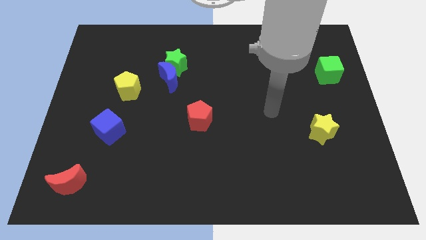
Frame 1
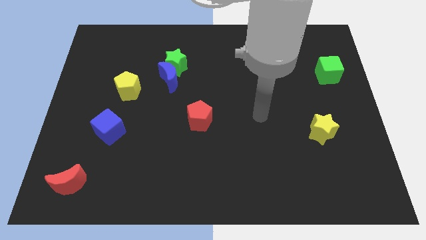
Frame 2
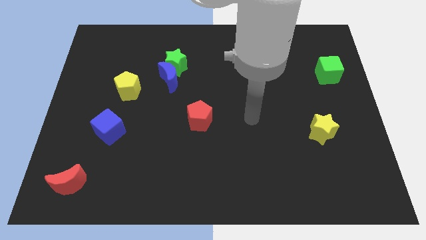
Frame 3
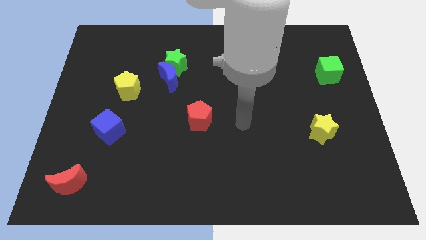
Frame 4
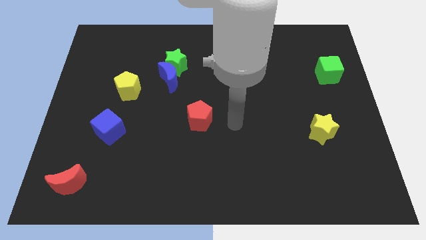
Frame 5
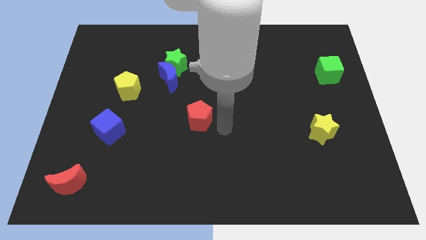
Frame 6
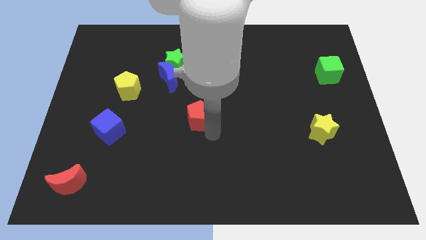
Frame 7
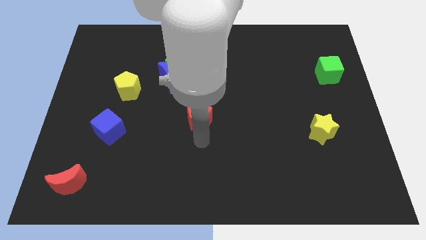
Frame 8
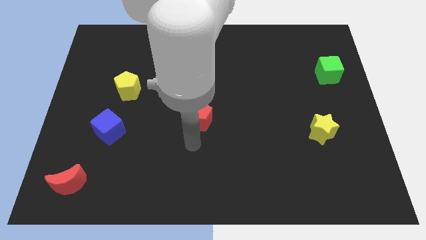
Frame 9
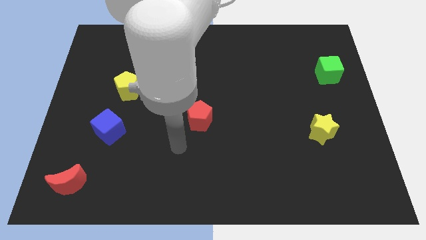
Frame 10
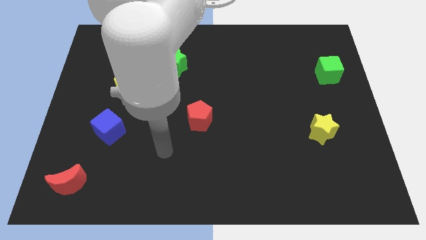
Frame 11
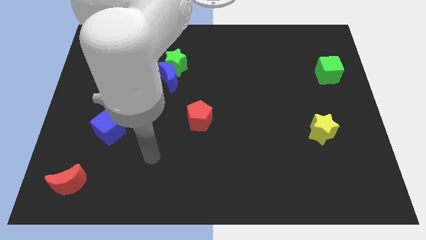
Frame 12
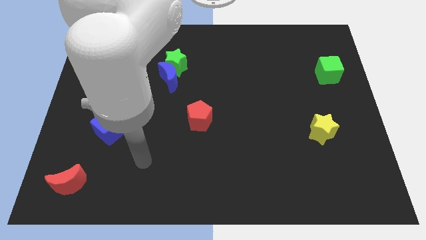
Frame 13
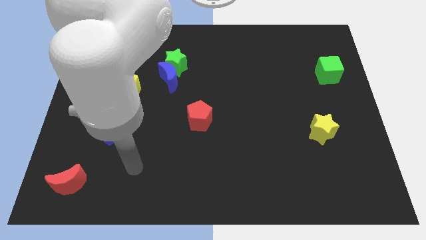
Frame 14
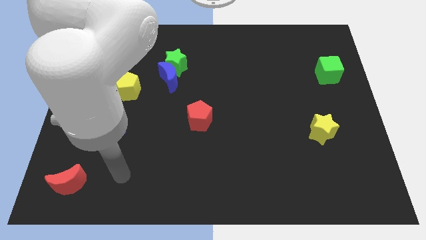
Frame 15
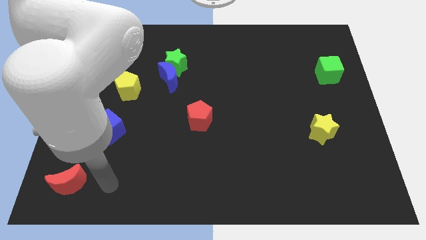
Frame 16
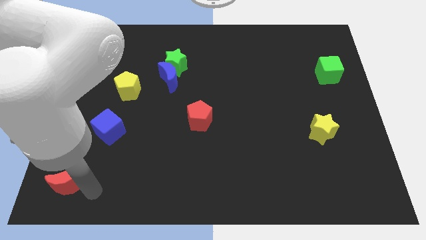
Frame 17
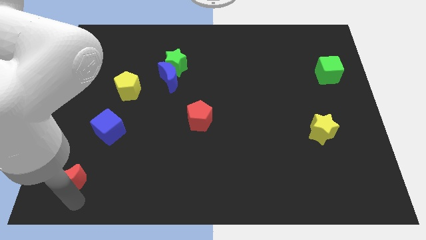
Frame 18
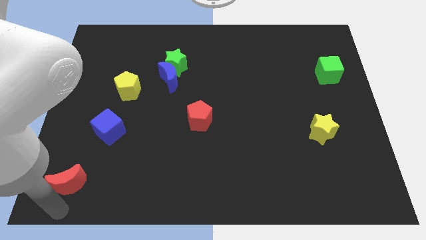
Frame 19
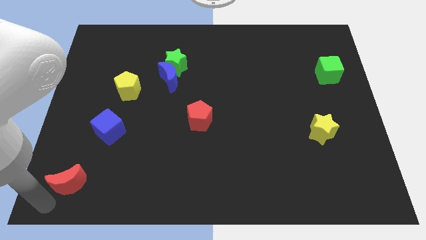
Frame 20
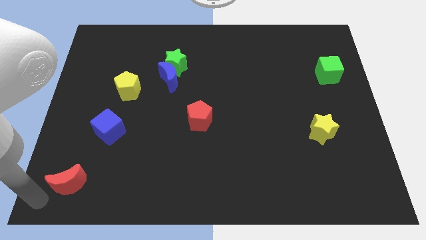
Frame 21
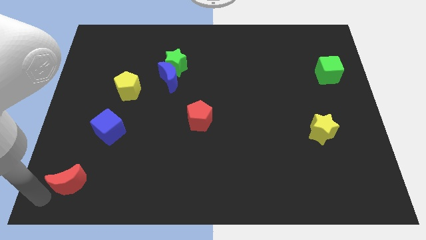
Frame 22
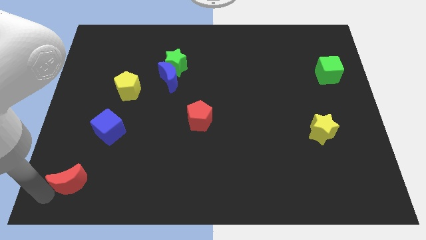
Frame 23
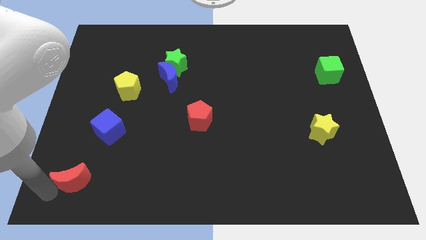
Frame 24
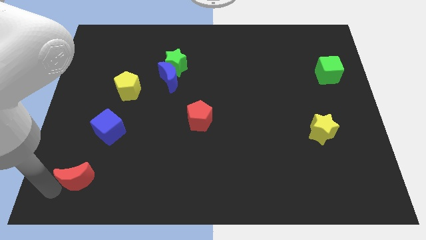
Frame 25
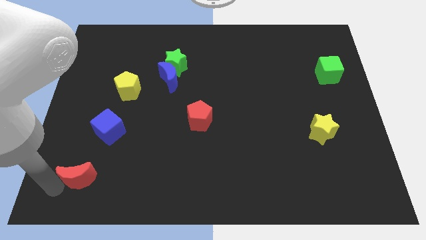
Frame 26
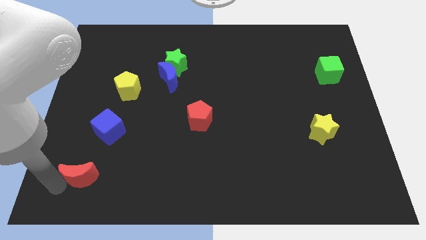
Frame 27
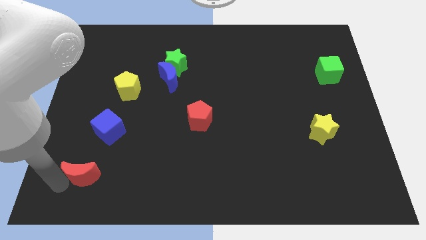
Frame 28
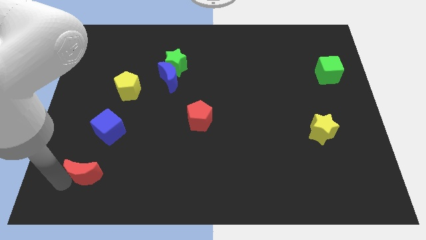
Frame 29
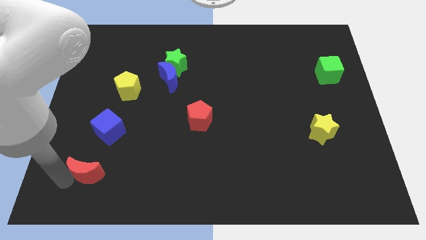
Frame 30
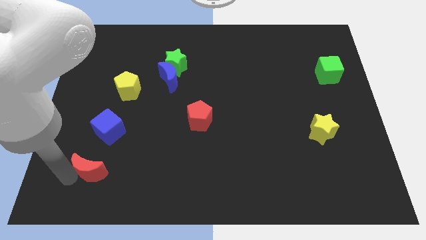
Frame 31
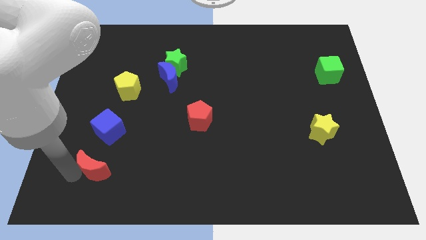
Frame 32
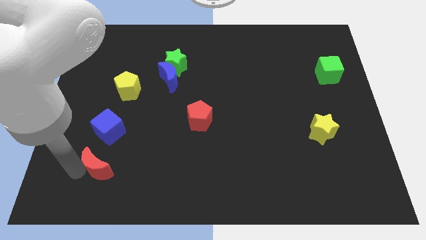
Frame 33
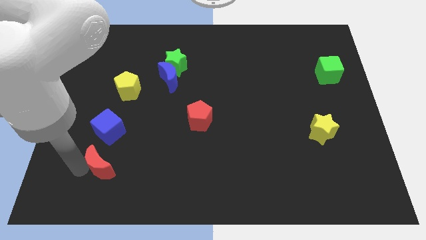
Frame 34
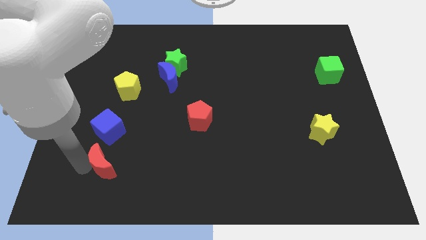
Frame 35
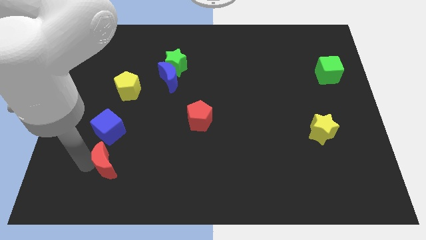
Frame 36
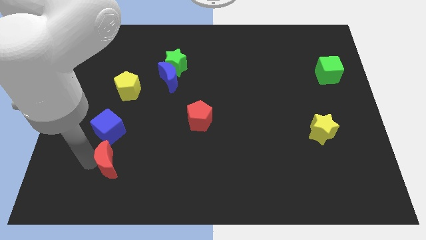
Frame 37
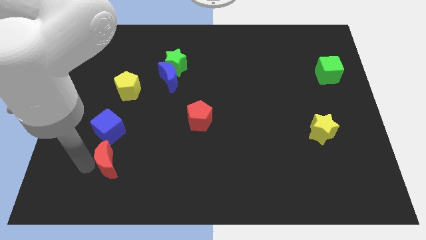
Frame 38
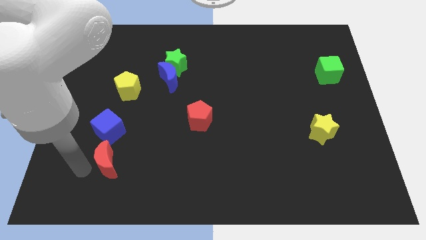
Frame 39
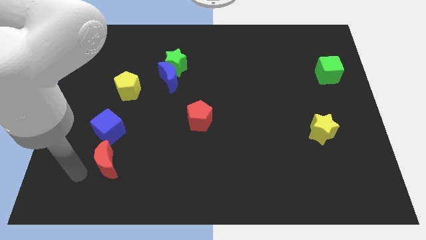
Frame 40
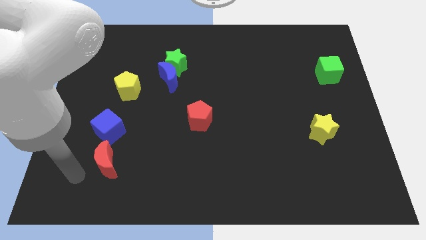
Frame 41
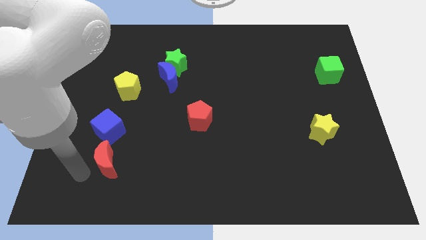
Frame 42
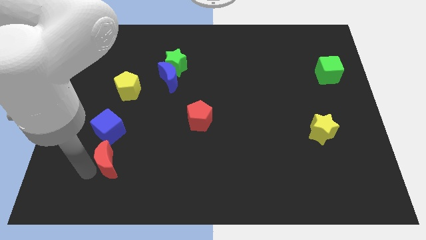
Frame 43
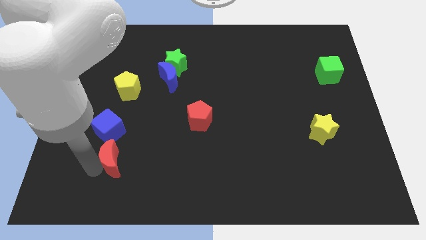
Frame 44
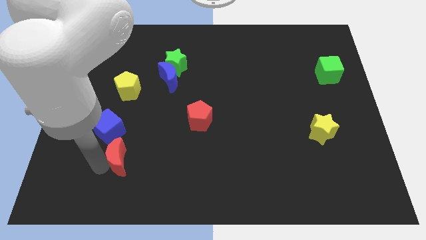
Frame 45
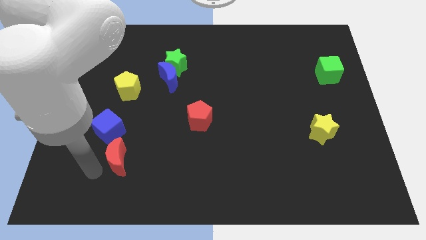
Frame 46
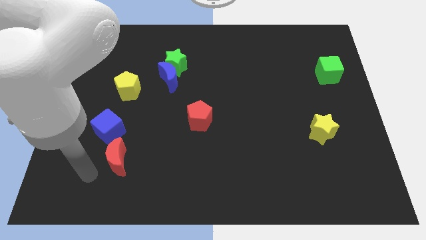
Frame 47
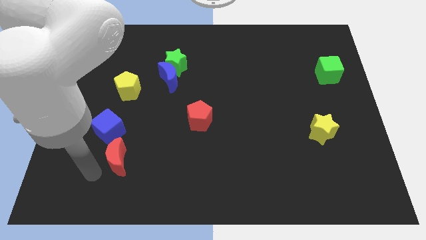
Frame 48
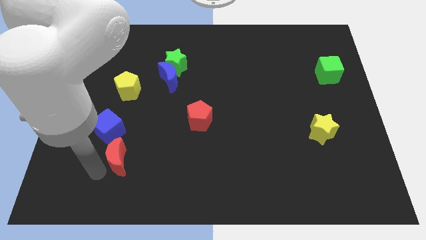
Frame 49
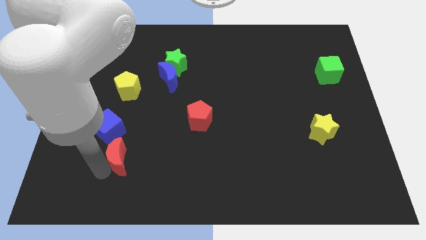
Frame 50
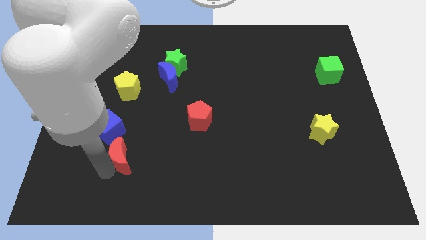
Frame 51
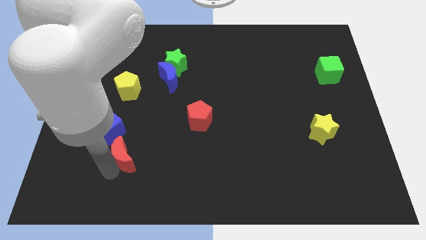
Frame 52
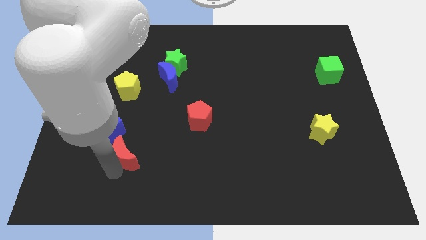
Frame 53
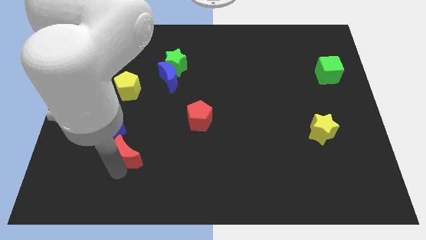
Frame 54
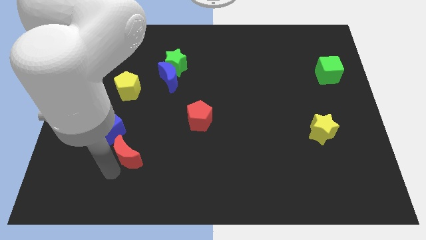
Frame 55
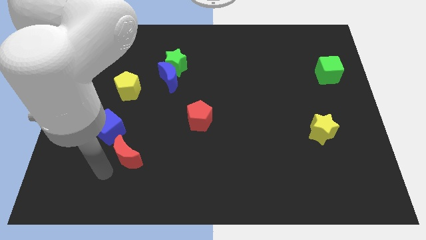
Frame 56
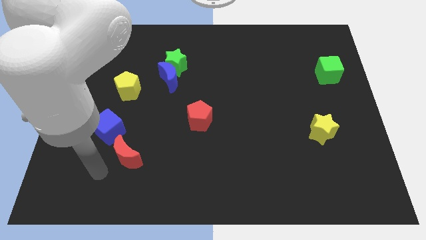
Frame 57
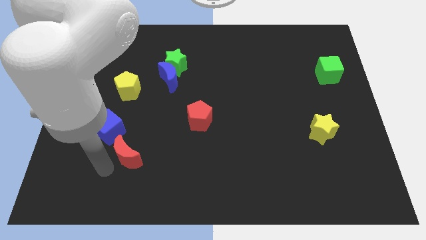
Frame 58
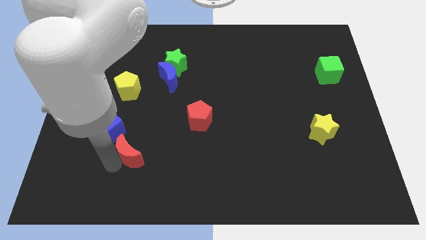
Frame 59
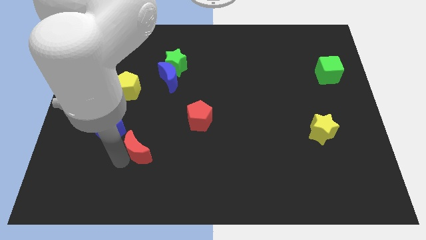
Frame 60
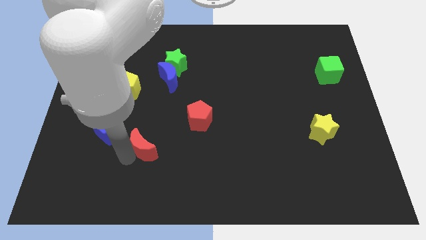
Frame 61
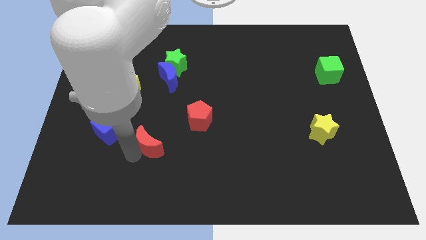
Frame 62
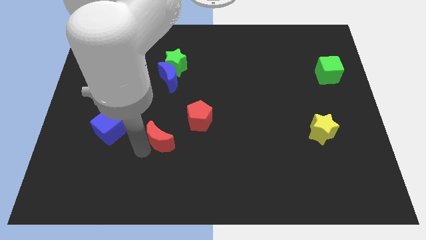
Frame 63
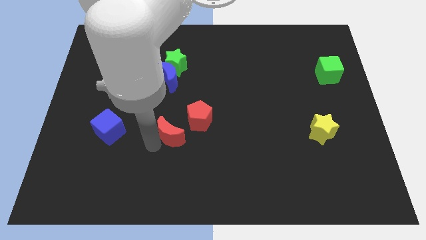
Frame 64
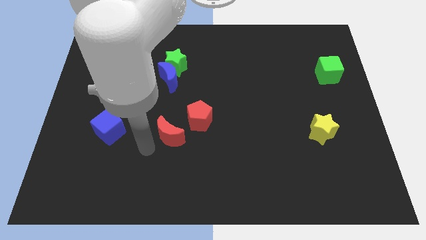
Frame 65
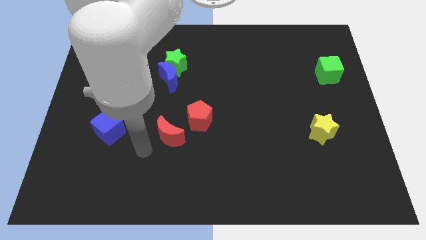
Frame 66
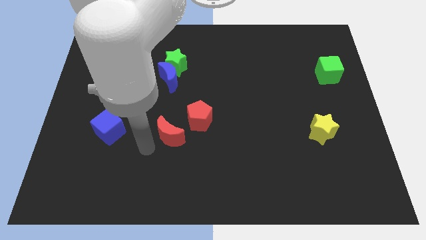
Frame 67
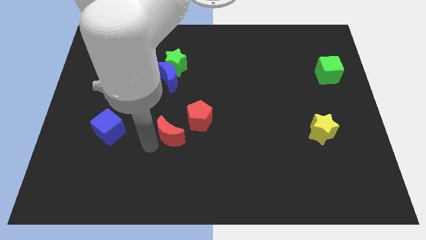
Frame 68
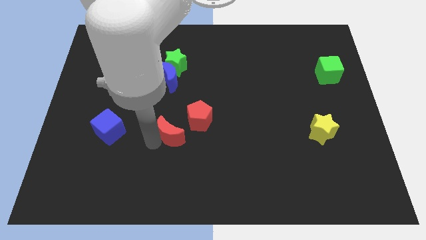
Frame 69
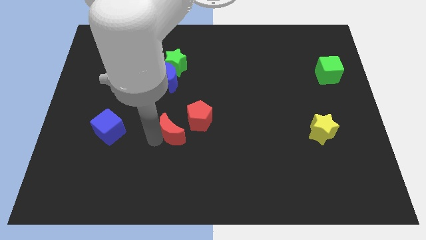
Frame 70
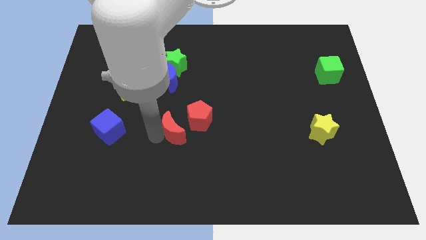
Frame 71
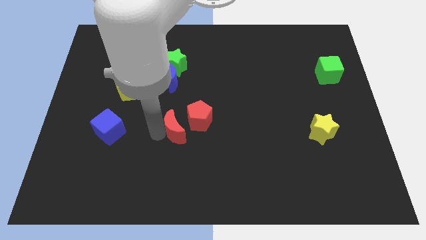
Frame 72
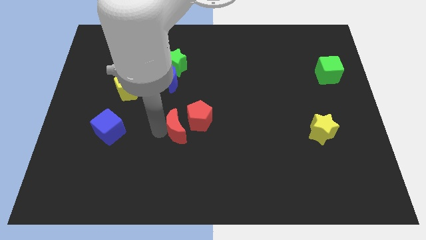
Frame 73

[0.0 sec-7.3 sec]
push the red moon to the red pentagon

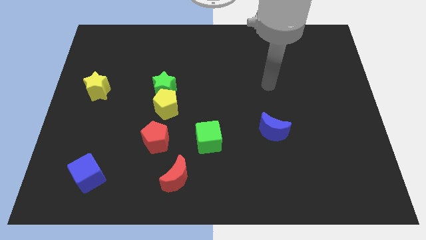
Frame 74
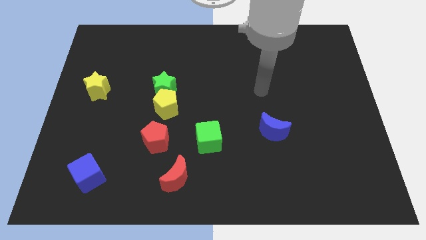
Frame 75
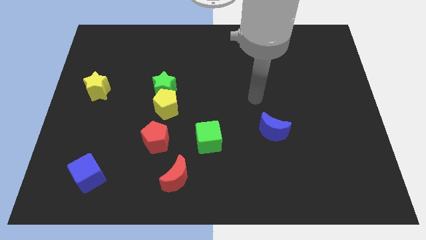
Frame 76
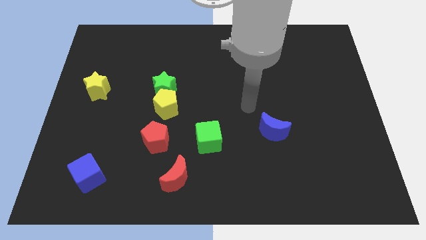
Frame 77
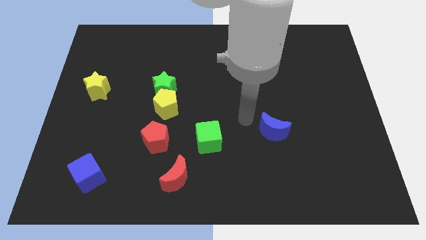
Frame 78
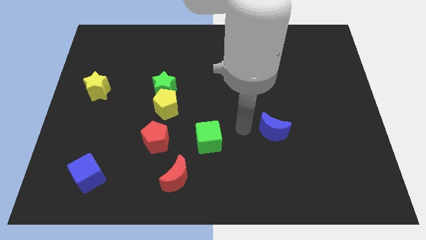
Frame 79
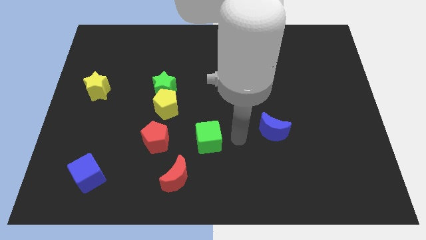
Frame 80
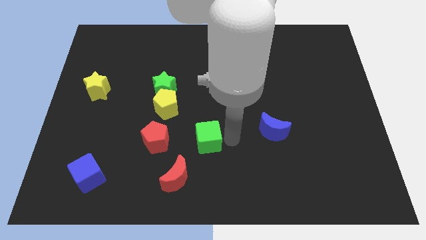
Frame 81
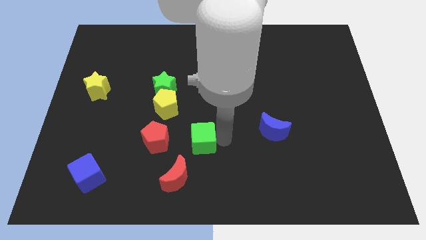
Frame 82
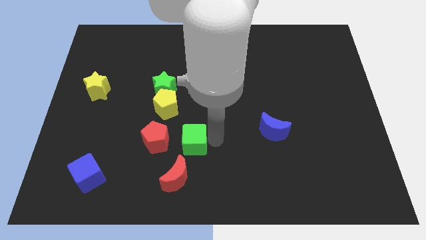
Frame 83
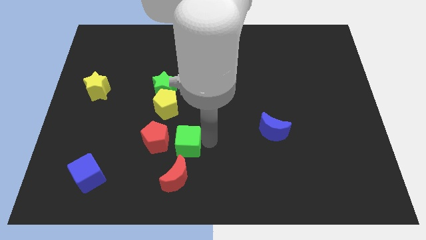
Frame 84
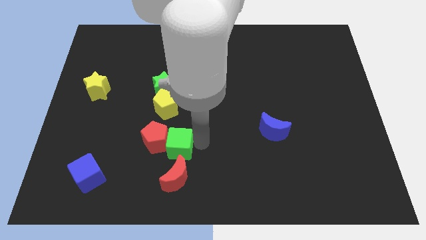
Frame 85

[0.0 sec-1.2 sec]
move the green cube to the red pentagon
